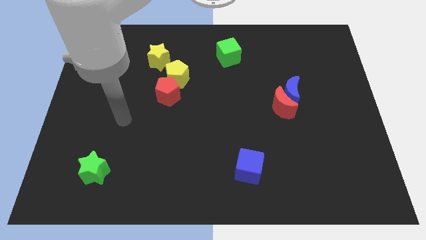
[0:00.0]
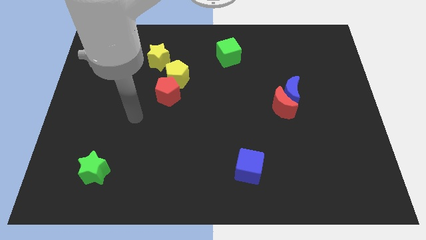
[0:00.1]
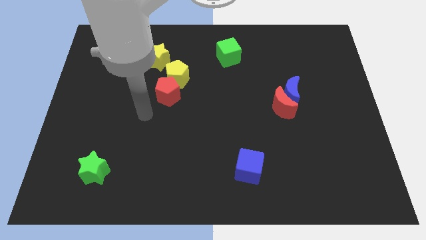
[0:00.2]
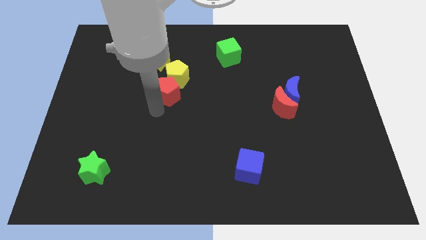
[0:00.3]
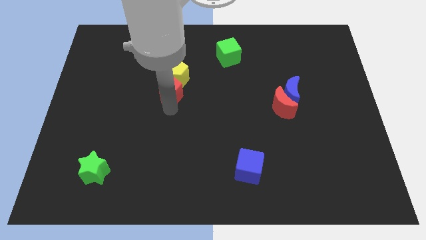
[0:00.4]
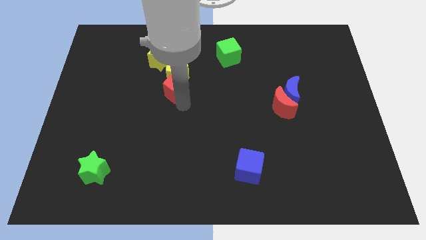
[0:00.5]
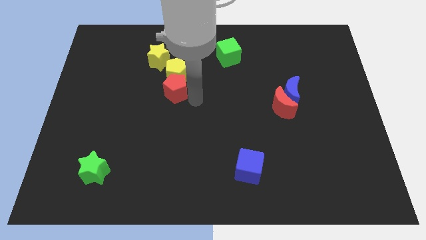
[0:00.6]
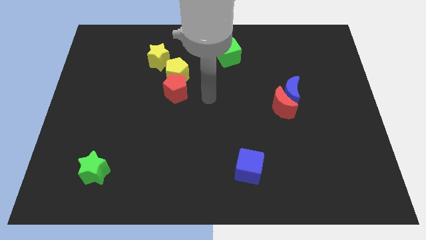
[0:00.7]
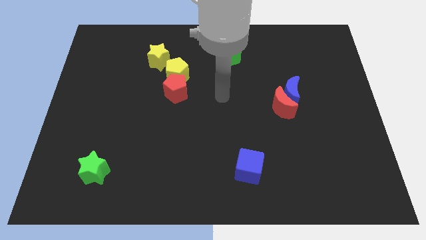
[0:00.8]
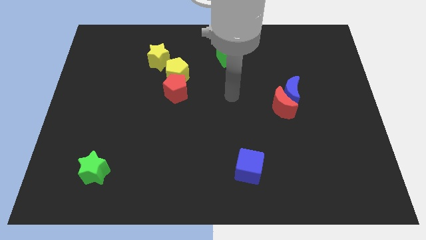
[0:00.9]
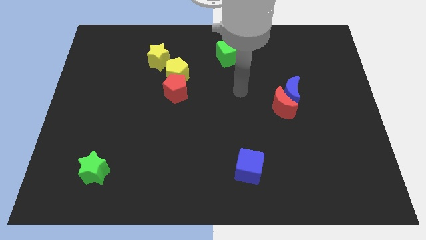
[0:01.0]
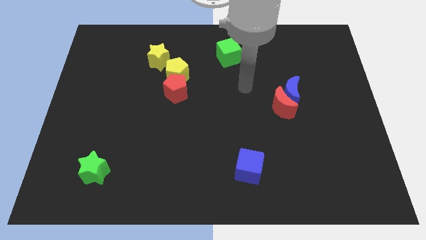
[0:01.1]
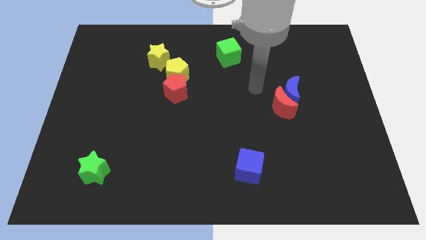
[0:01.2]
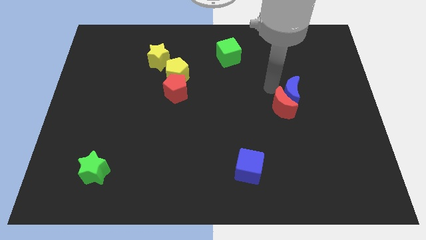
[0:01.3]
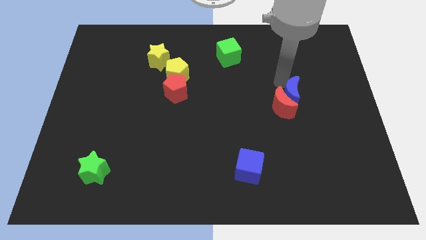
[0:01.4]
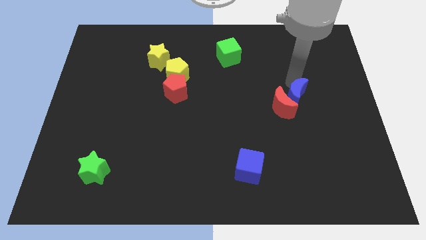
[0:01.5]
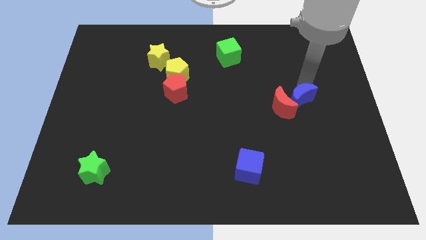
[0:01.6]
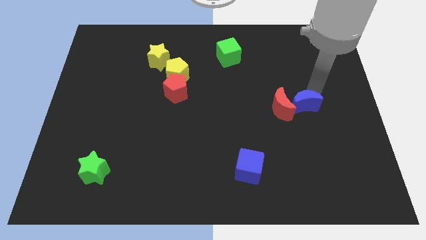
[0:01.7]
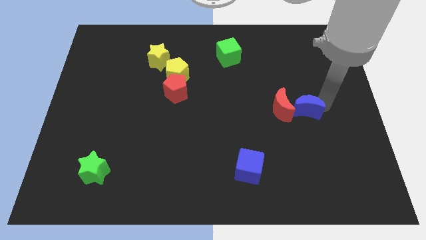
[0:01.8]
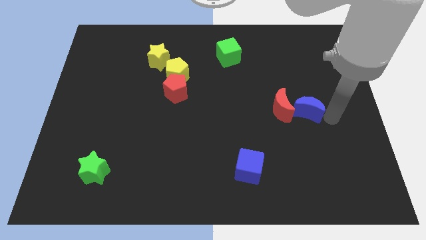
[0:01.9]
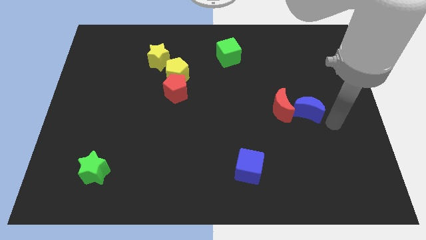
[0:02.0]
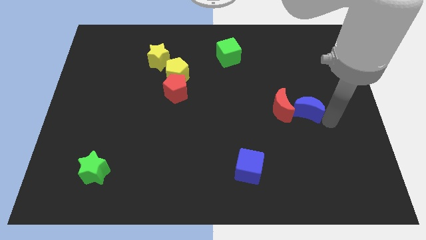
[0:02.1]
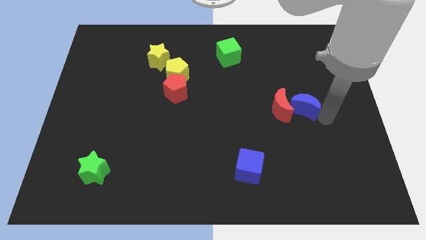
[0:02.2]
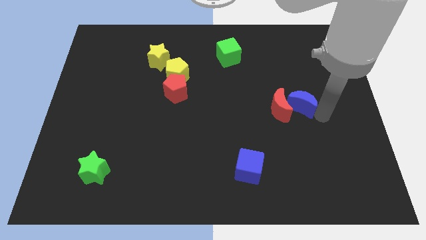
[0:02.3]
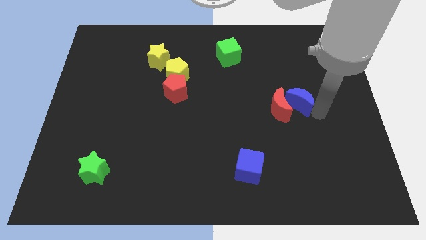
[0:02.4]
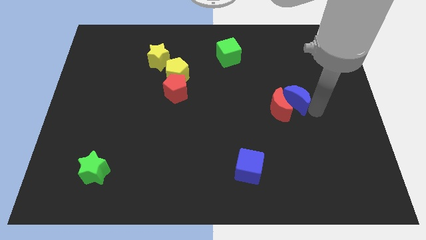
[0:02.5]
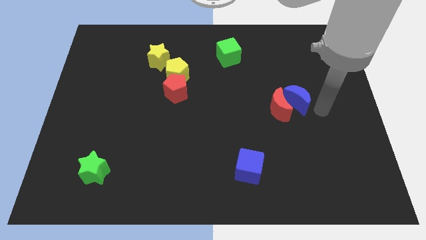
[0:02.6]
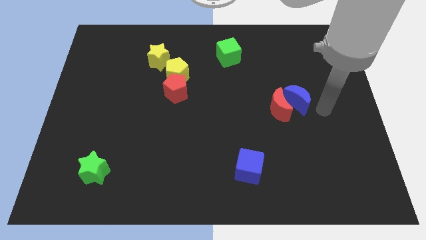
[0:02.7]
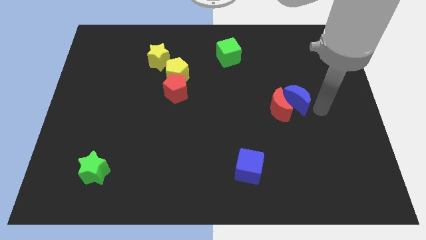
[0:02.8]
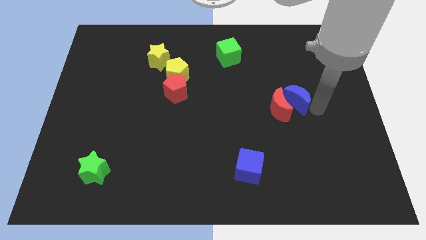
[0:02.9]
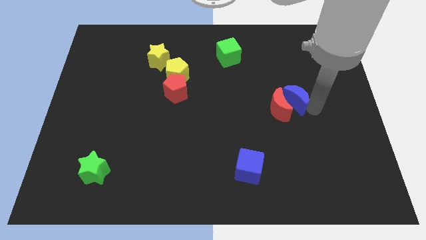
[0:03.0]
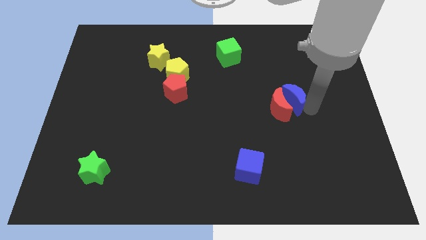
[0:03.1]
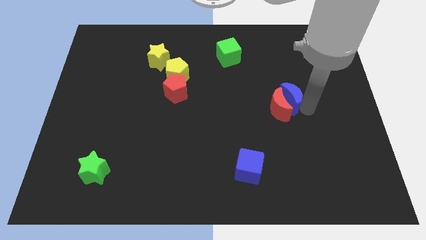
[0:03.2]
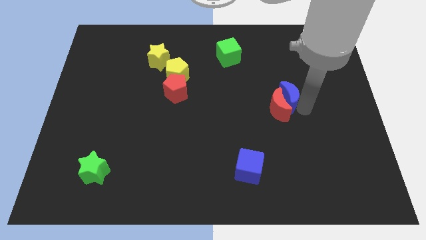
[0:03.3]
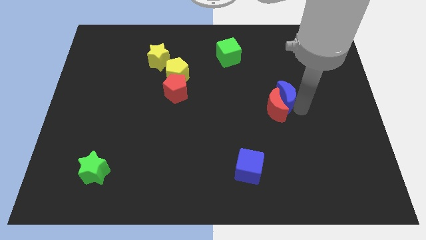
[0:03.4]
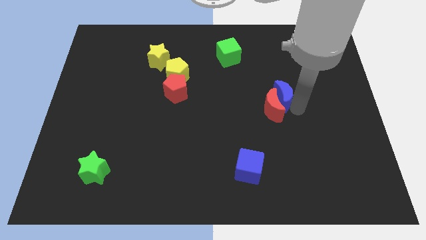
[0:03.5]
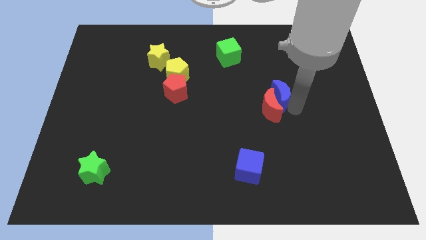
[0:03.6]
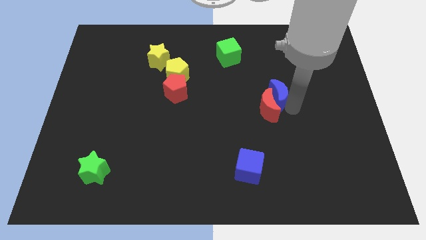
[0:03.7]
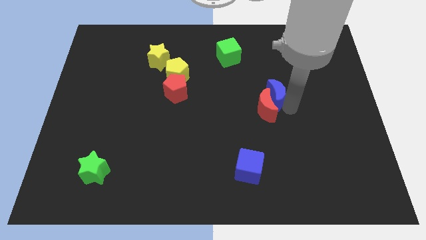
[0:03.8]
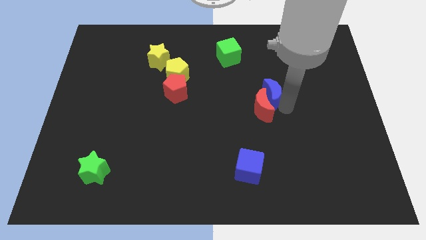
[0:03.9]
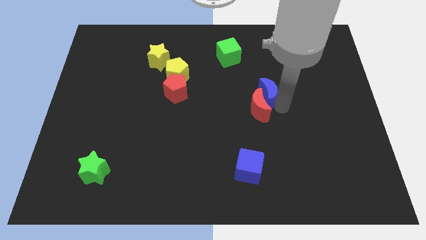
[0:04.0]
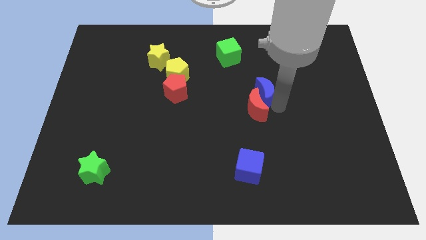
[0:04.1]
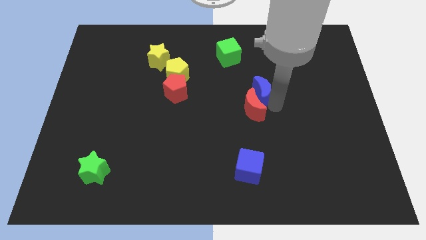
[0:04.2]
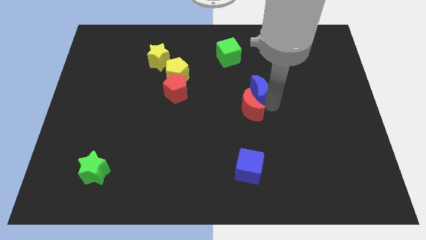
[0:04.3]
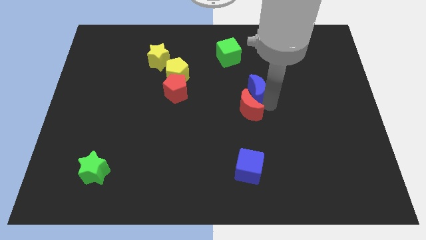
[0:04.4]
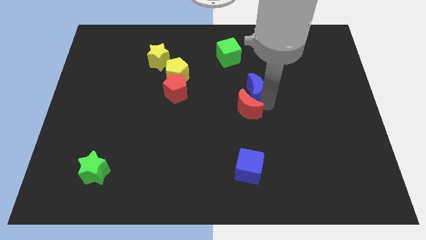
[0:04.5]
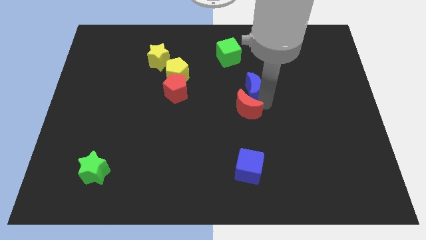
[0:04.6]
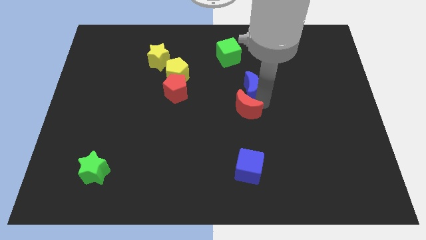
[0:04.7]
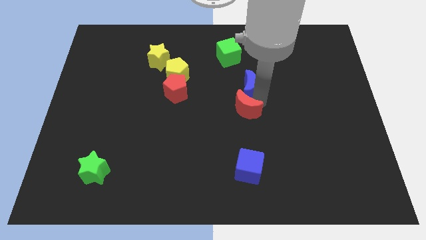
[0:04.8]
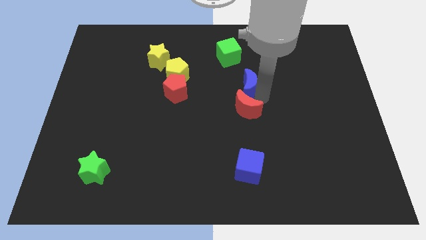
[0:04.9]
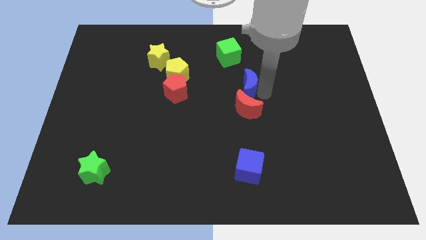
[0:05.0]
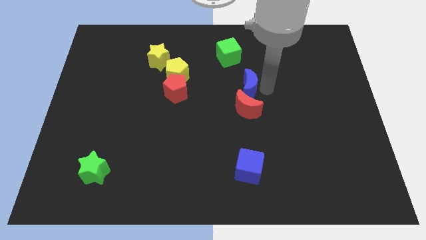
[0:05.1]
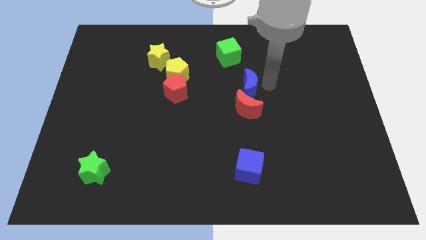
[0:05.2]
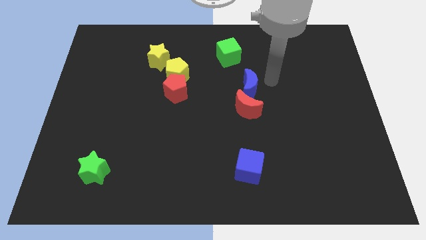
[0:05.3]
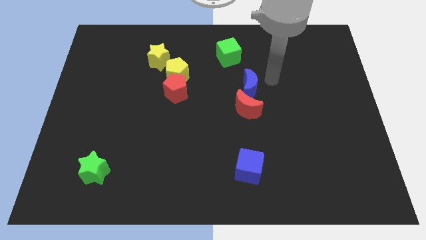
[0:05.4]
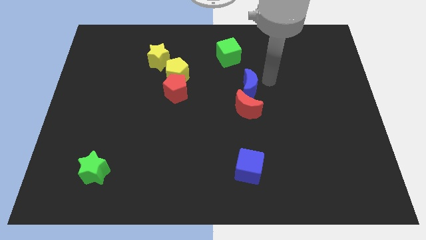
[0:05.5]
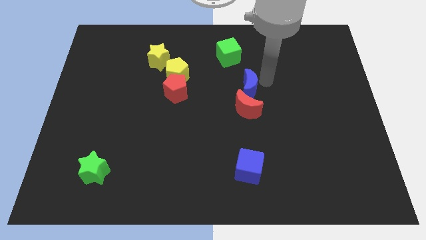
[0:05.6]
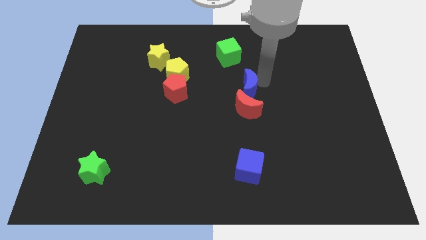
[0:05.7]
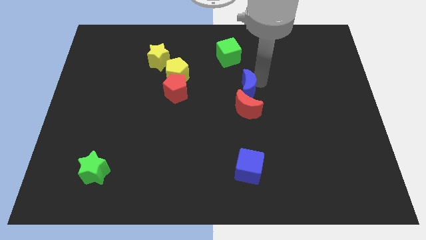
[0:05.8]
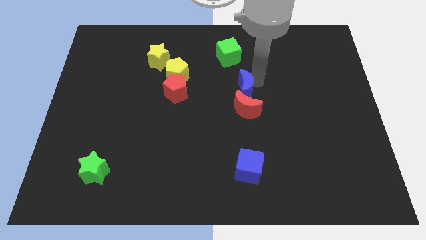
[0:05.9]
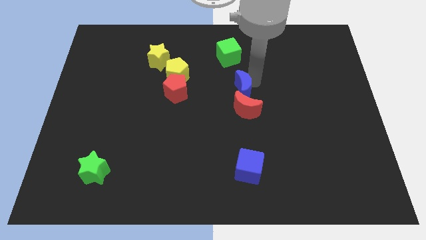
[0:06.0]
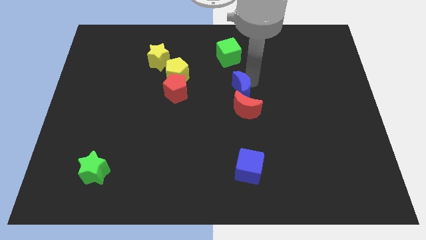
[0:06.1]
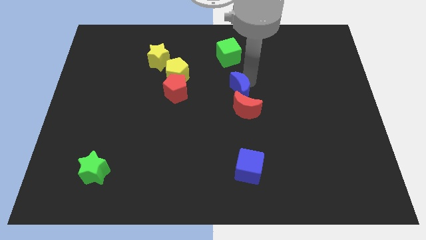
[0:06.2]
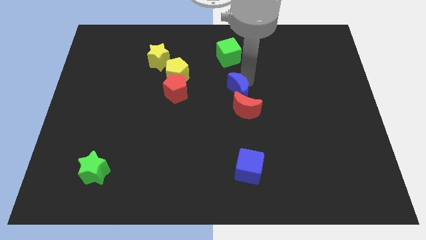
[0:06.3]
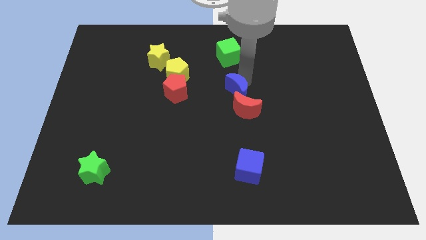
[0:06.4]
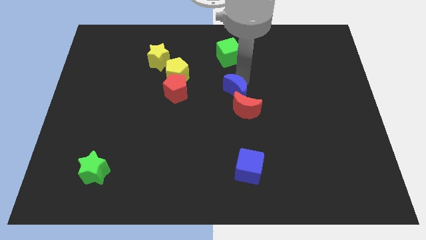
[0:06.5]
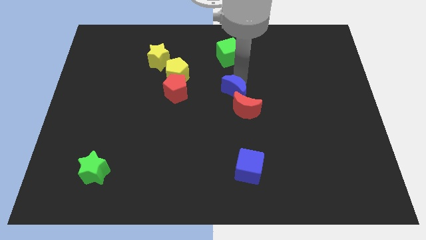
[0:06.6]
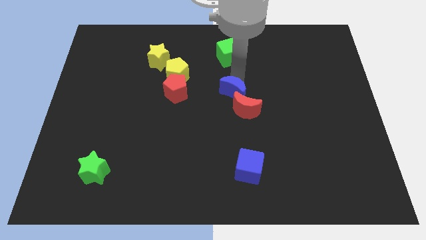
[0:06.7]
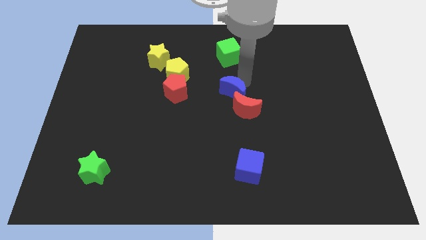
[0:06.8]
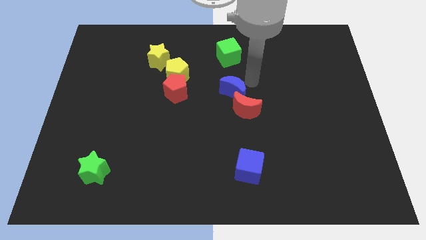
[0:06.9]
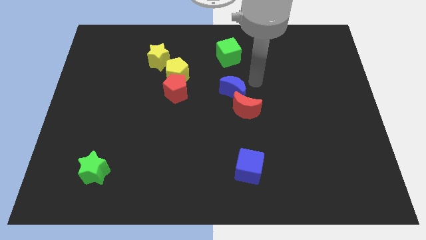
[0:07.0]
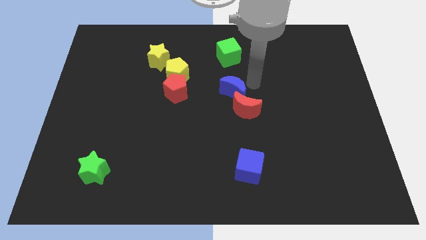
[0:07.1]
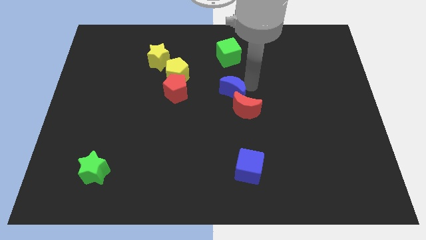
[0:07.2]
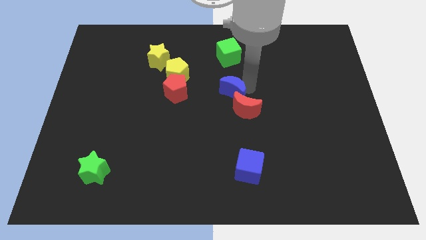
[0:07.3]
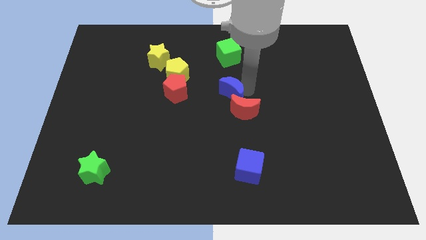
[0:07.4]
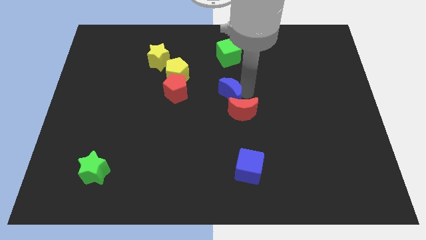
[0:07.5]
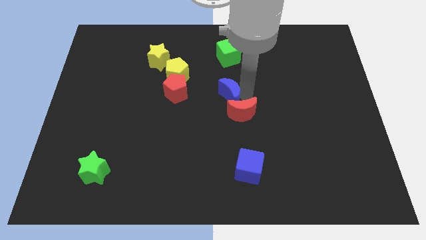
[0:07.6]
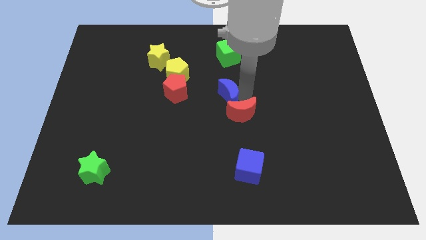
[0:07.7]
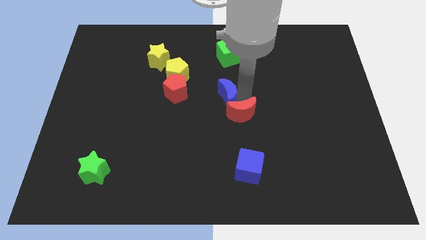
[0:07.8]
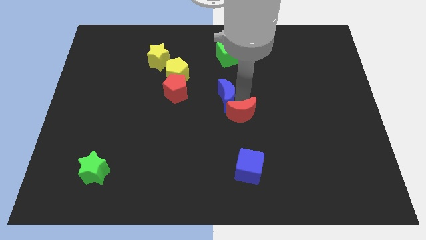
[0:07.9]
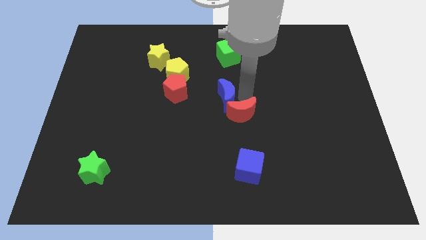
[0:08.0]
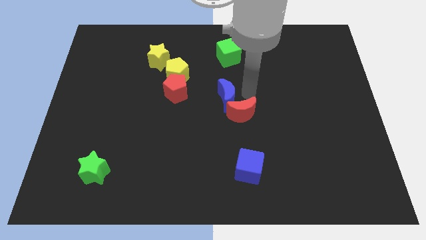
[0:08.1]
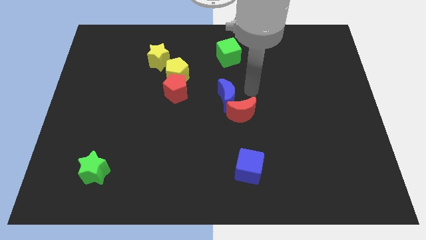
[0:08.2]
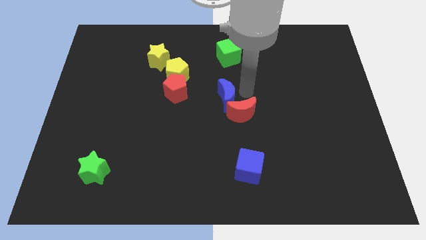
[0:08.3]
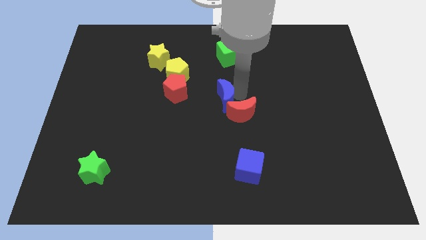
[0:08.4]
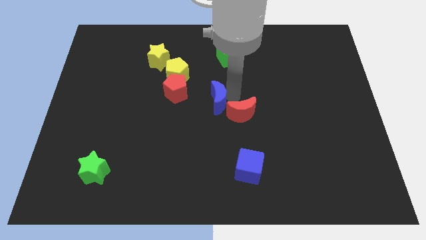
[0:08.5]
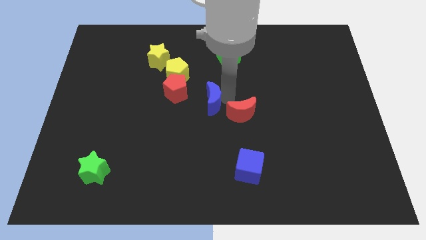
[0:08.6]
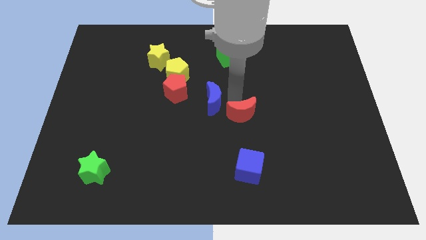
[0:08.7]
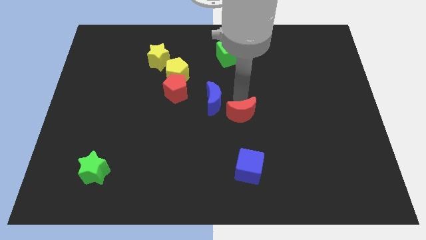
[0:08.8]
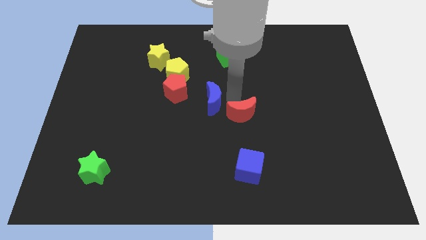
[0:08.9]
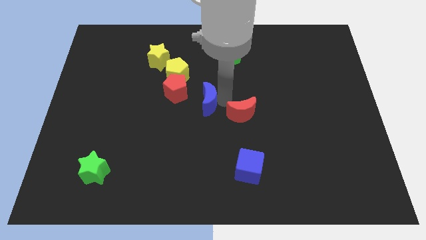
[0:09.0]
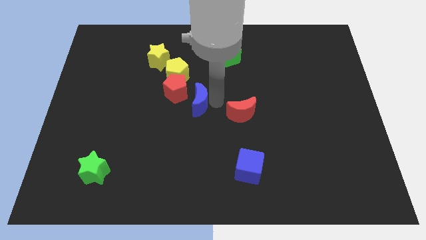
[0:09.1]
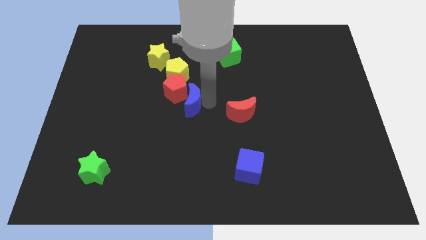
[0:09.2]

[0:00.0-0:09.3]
move the blue moon to the bottom of the yellow pentagon
